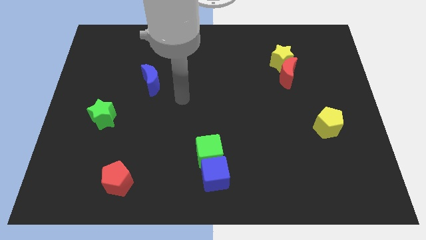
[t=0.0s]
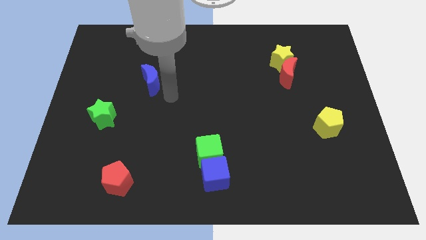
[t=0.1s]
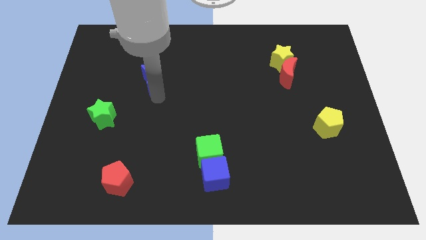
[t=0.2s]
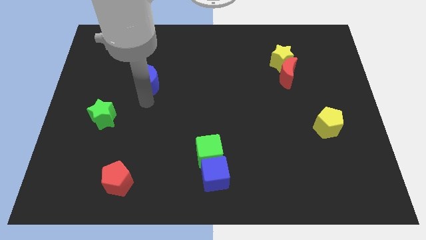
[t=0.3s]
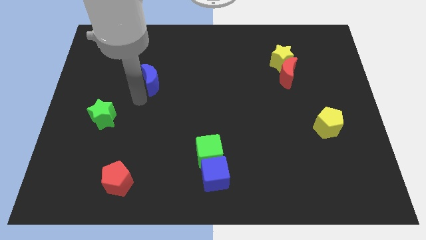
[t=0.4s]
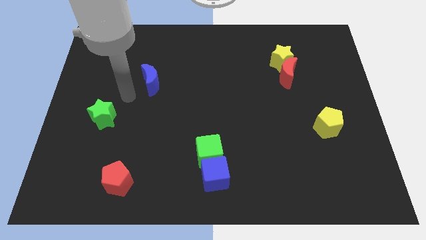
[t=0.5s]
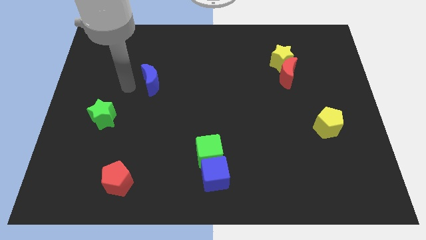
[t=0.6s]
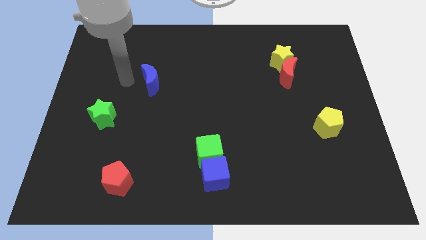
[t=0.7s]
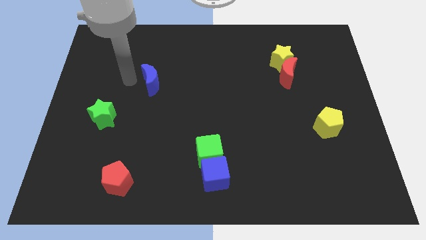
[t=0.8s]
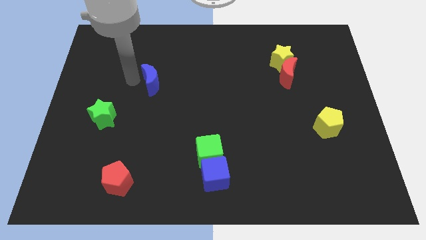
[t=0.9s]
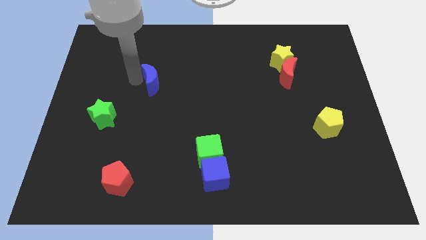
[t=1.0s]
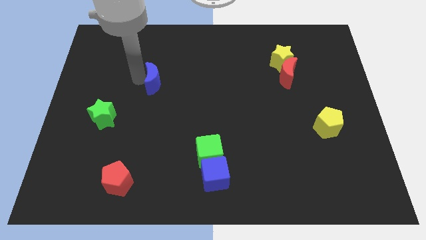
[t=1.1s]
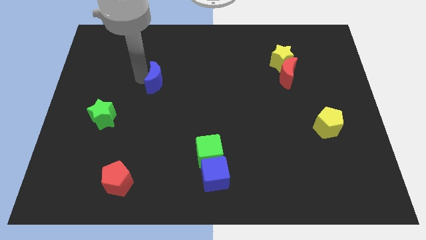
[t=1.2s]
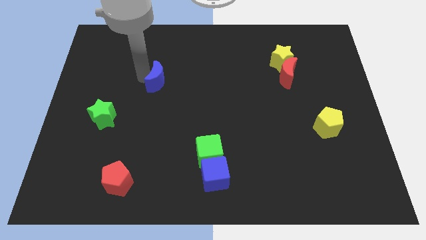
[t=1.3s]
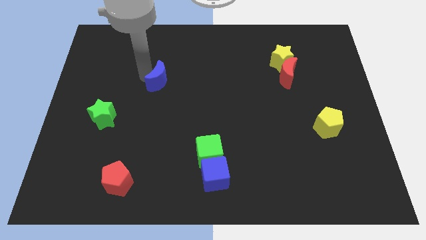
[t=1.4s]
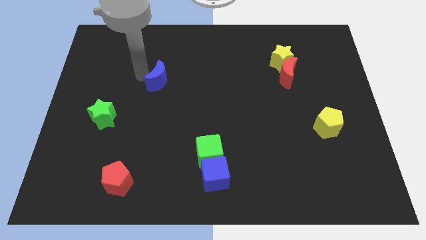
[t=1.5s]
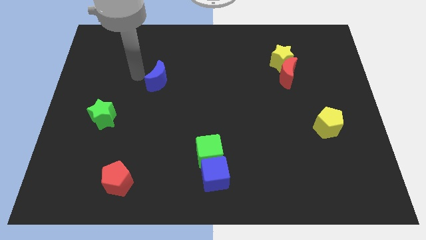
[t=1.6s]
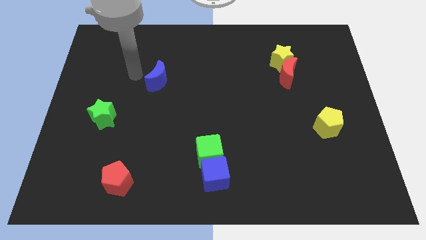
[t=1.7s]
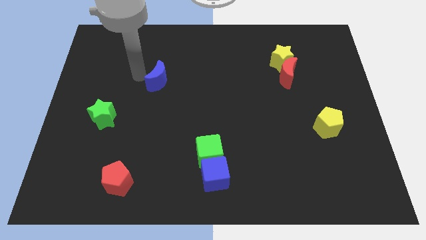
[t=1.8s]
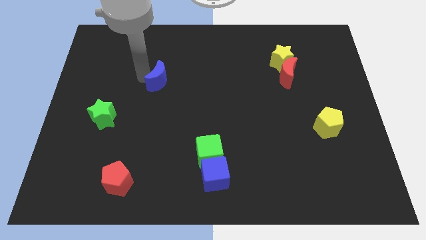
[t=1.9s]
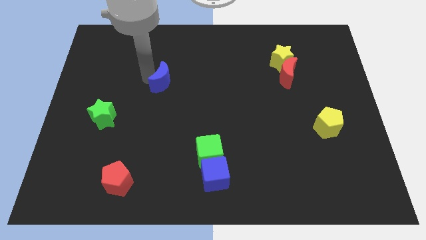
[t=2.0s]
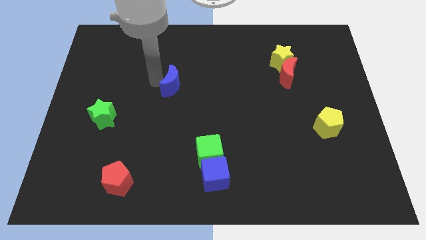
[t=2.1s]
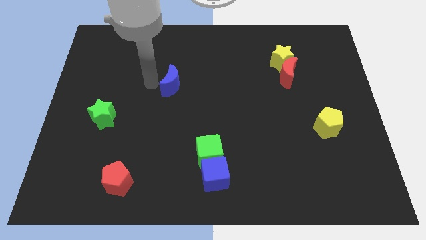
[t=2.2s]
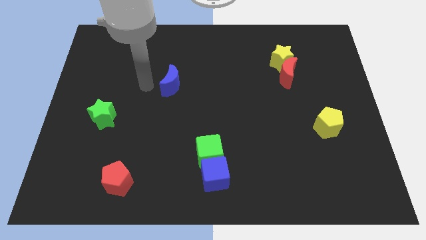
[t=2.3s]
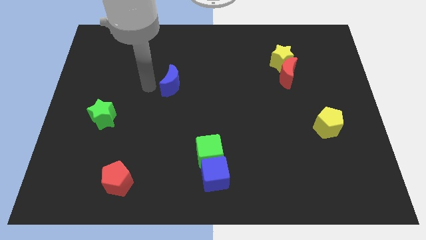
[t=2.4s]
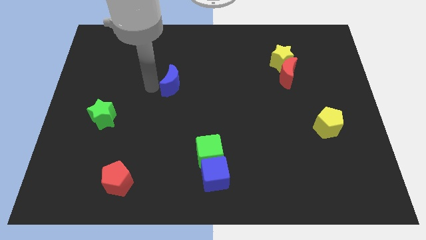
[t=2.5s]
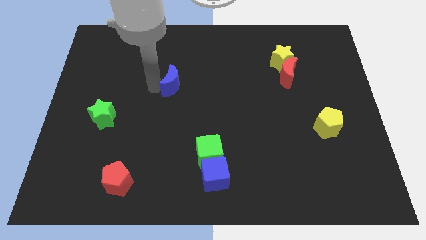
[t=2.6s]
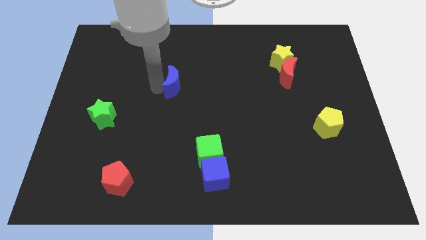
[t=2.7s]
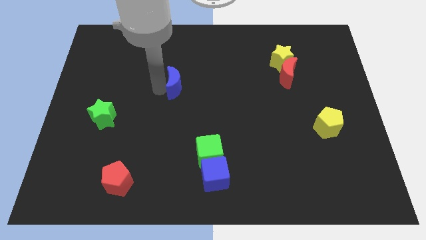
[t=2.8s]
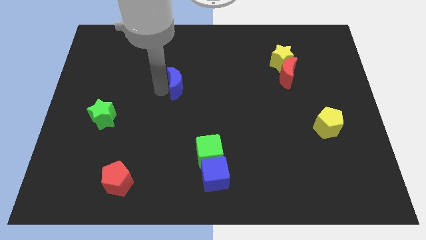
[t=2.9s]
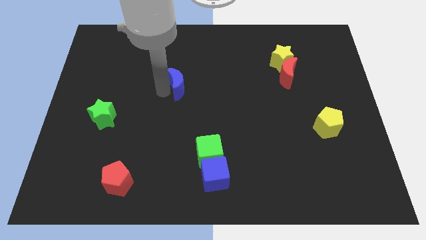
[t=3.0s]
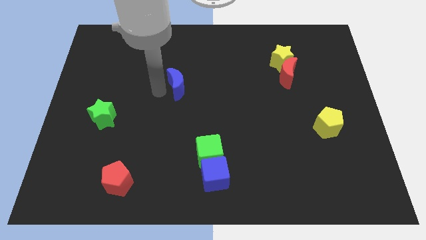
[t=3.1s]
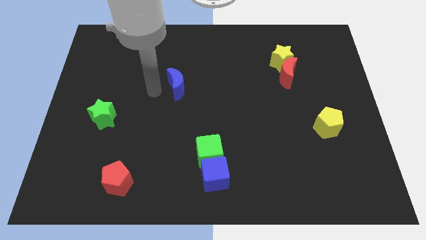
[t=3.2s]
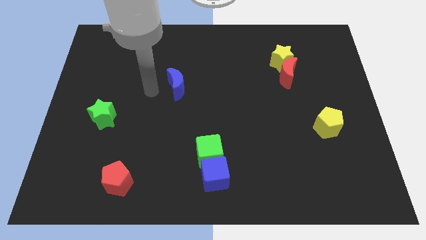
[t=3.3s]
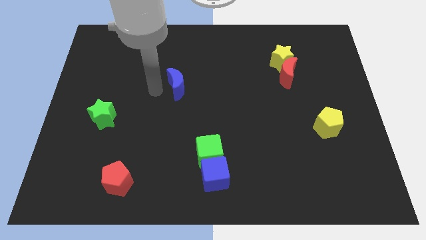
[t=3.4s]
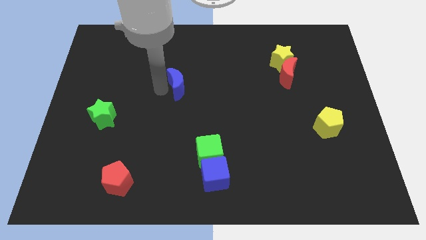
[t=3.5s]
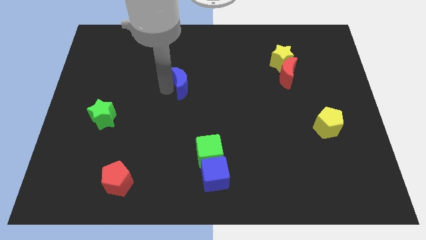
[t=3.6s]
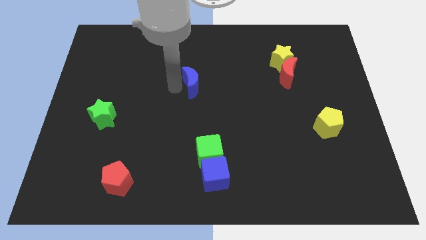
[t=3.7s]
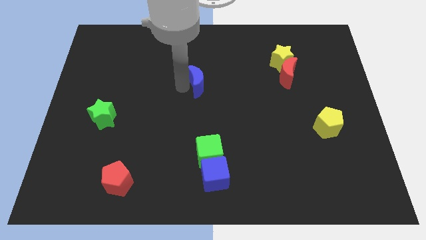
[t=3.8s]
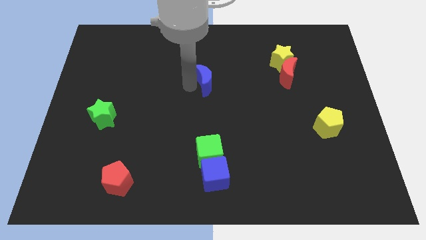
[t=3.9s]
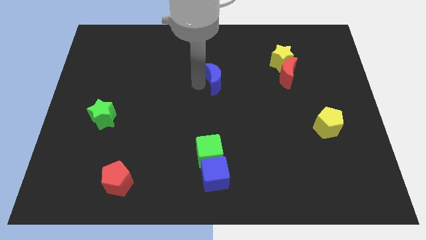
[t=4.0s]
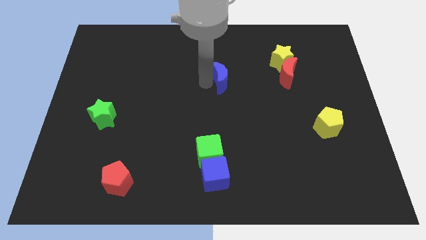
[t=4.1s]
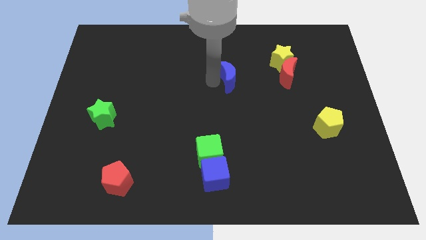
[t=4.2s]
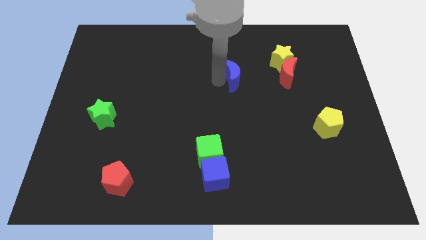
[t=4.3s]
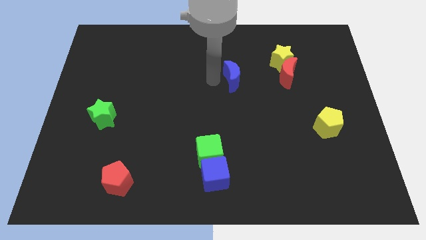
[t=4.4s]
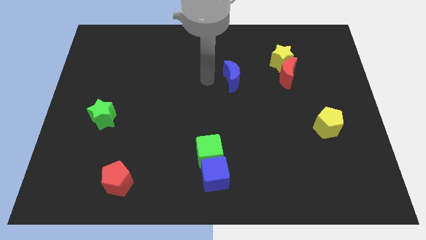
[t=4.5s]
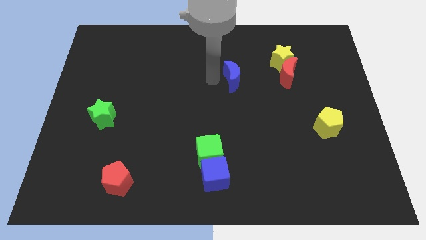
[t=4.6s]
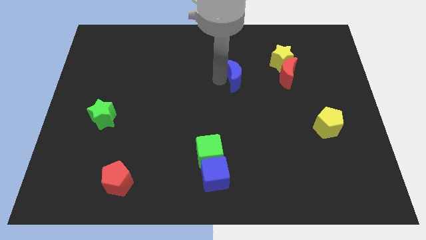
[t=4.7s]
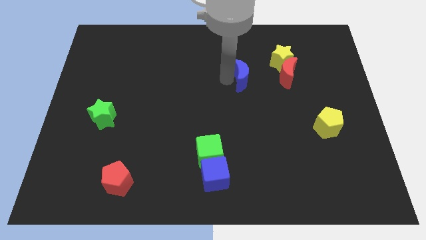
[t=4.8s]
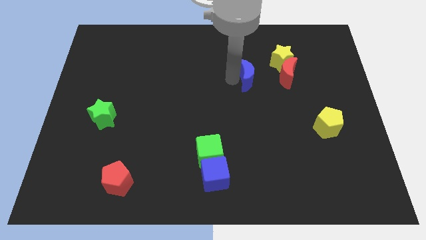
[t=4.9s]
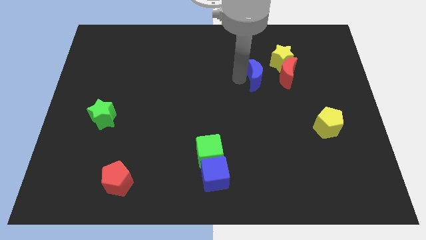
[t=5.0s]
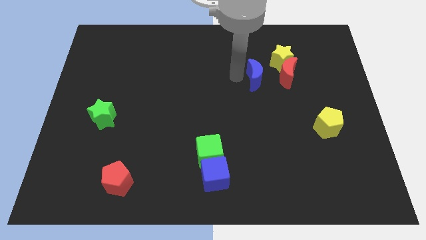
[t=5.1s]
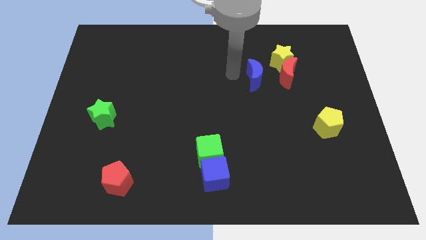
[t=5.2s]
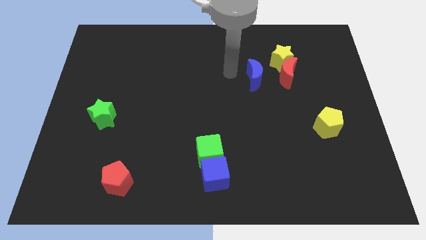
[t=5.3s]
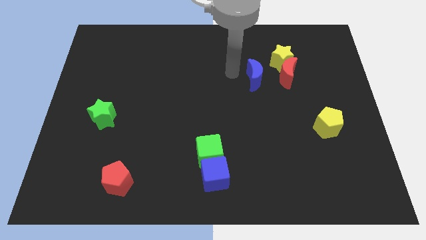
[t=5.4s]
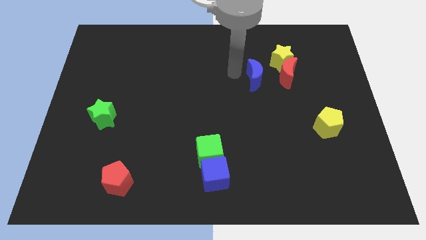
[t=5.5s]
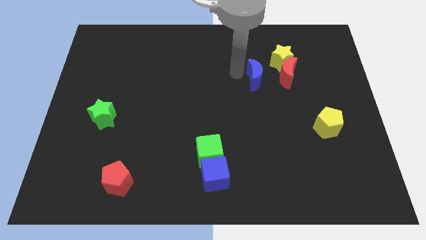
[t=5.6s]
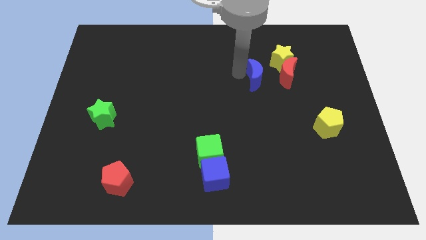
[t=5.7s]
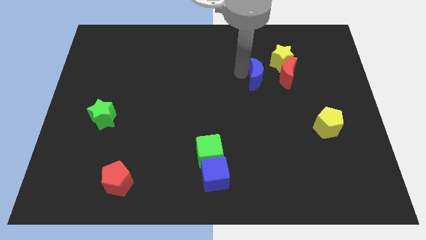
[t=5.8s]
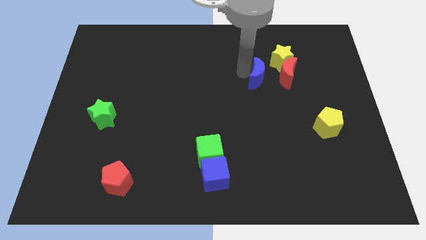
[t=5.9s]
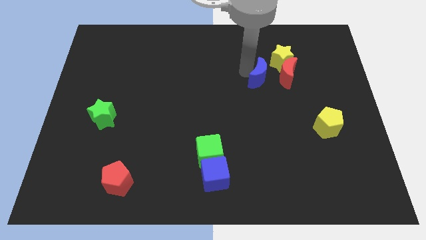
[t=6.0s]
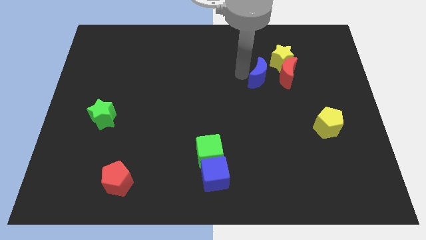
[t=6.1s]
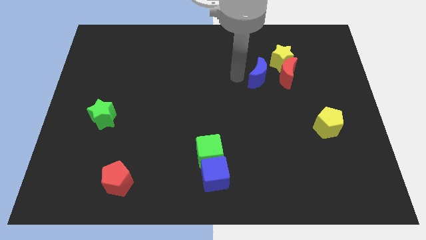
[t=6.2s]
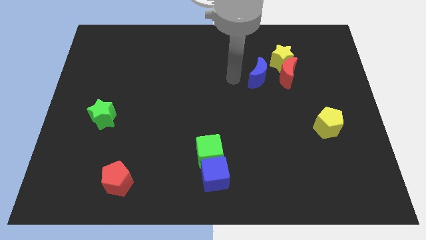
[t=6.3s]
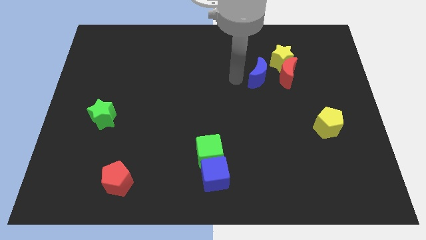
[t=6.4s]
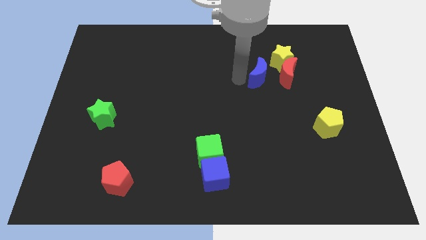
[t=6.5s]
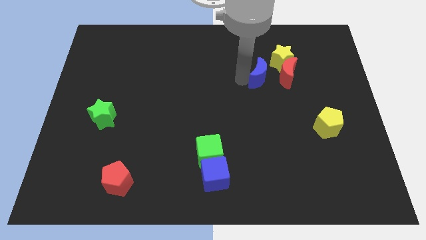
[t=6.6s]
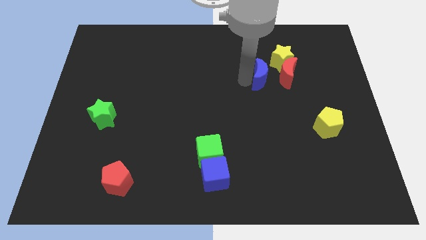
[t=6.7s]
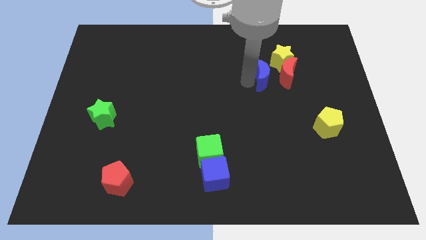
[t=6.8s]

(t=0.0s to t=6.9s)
push the blue moon towards the red moon
